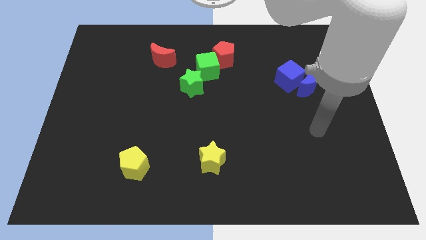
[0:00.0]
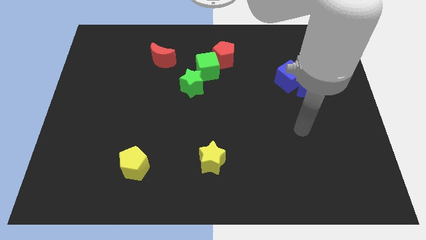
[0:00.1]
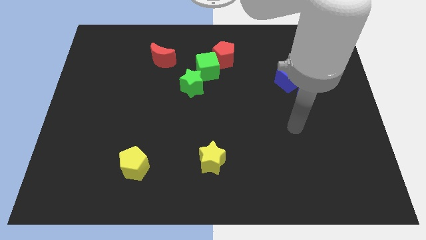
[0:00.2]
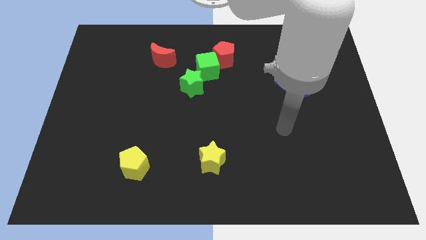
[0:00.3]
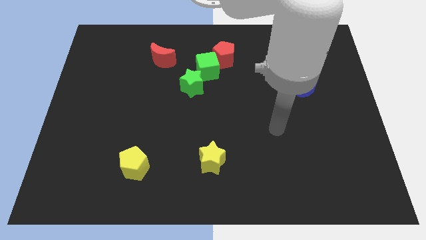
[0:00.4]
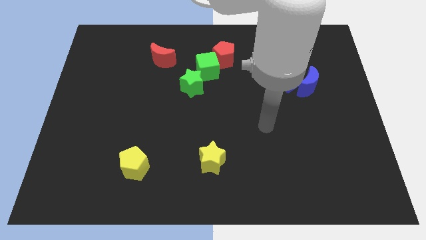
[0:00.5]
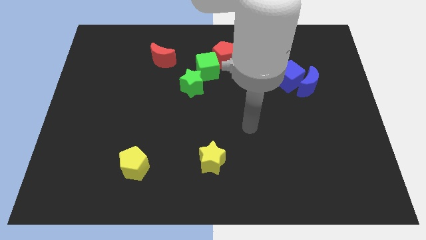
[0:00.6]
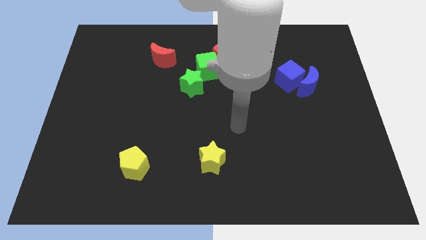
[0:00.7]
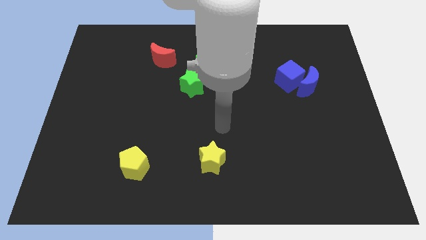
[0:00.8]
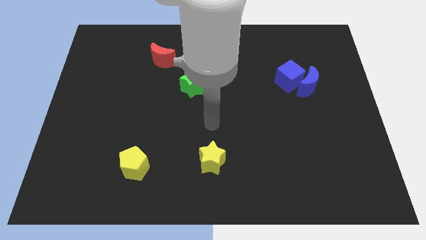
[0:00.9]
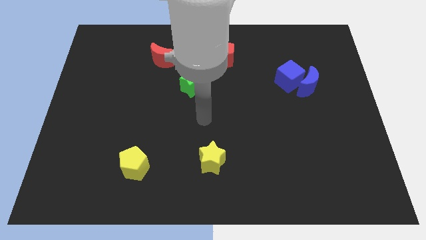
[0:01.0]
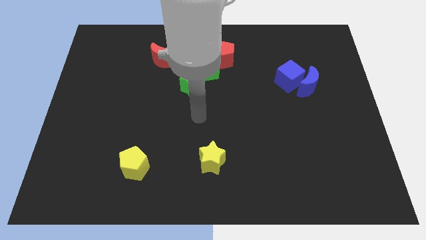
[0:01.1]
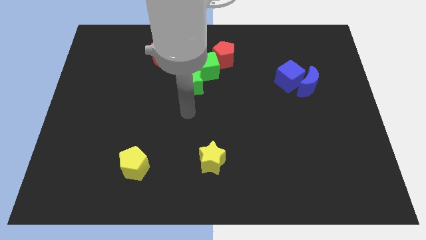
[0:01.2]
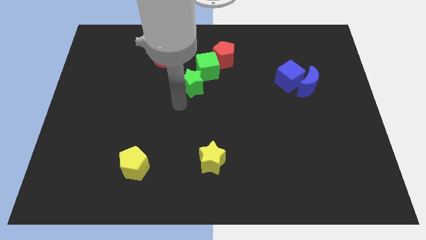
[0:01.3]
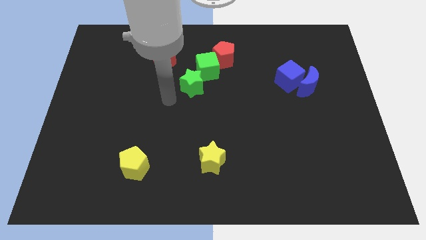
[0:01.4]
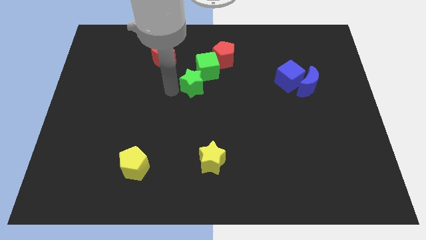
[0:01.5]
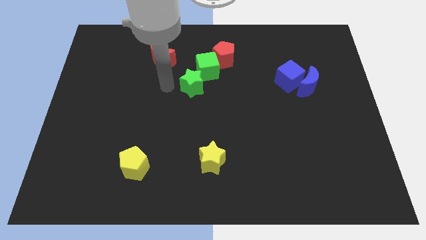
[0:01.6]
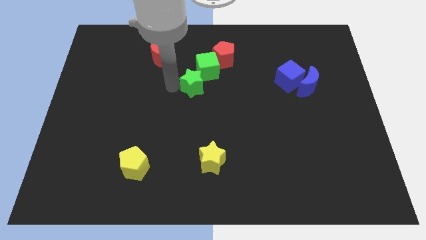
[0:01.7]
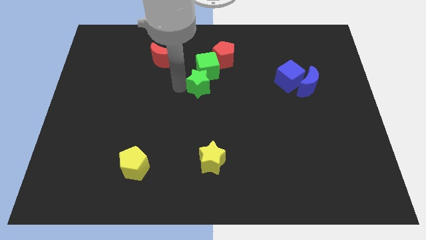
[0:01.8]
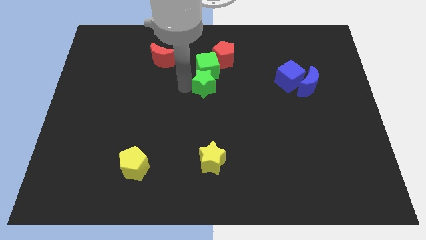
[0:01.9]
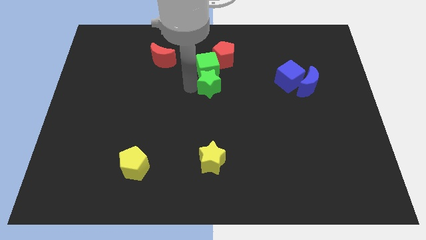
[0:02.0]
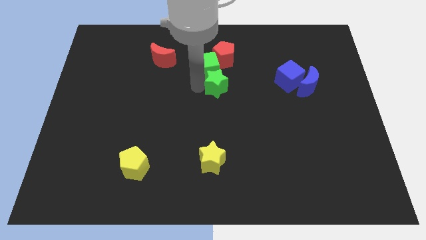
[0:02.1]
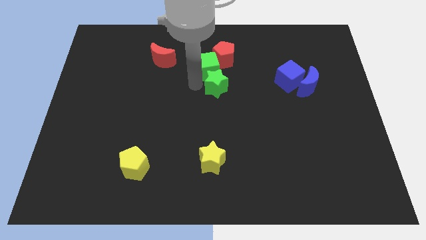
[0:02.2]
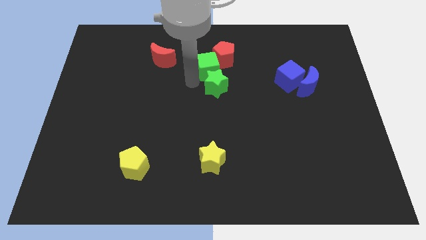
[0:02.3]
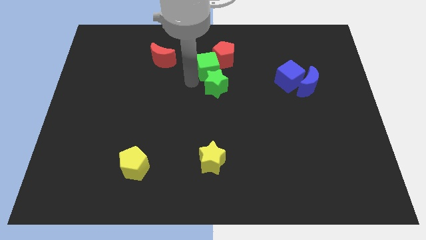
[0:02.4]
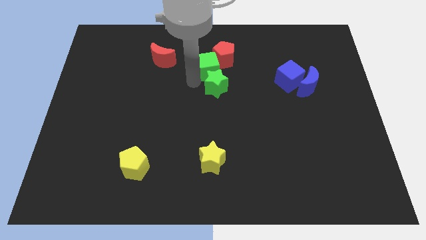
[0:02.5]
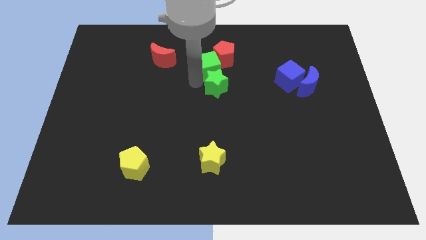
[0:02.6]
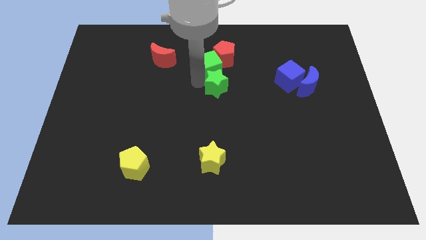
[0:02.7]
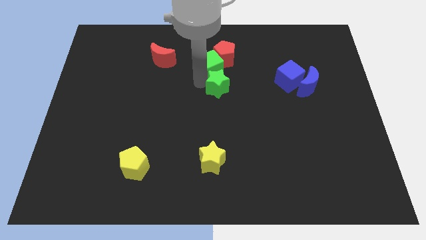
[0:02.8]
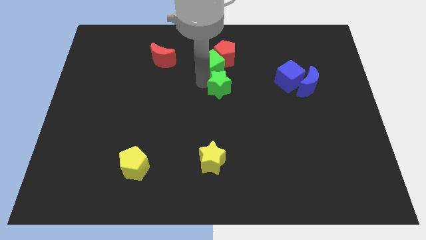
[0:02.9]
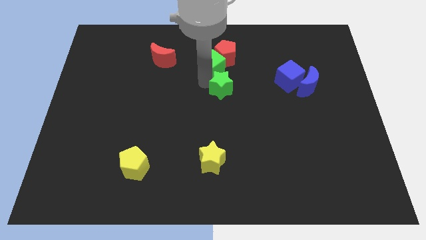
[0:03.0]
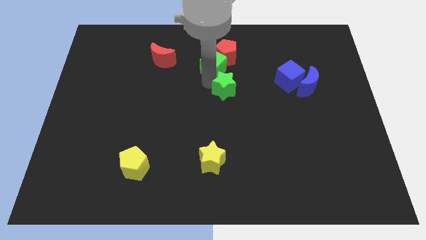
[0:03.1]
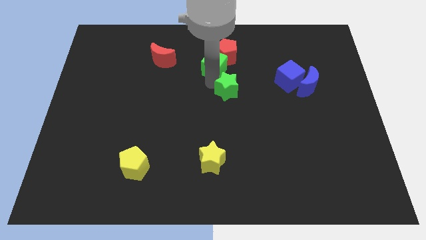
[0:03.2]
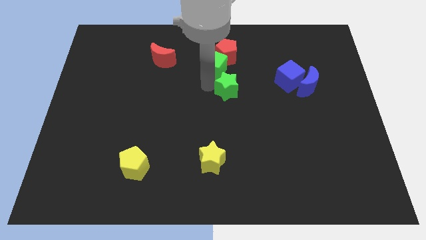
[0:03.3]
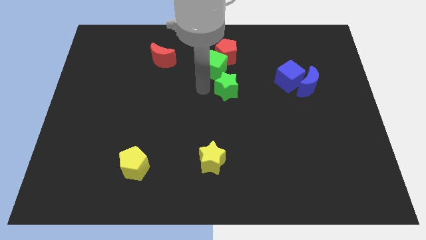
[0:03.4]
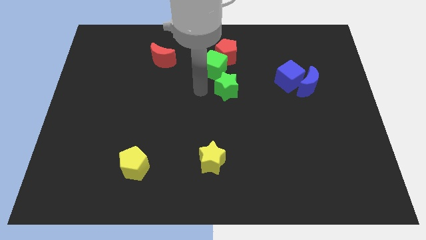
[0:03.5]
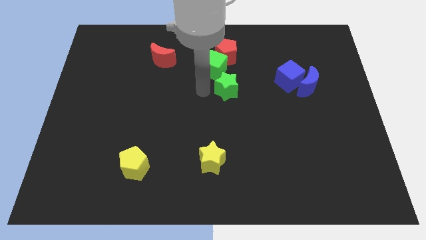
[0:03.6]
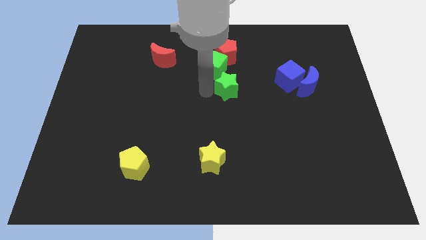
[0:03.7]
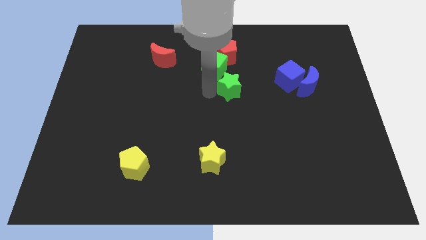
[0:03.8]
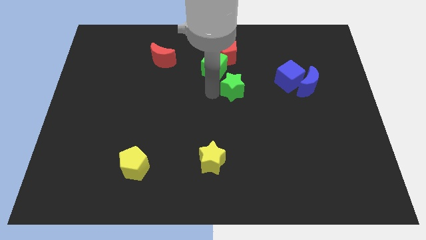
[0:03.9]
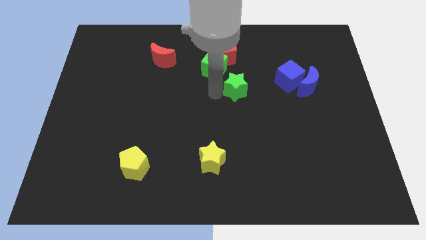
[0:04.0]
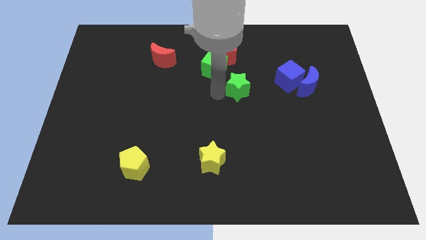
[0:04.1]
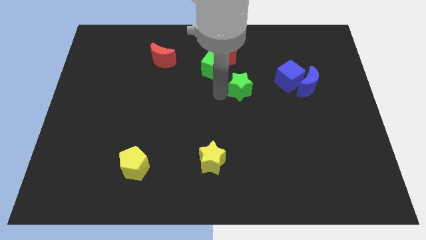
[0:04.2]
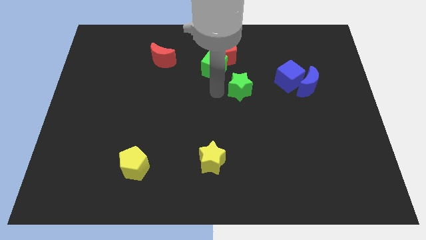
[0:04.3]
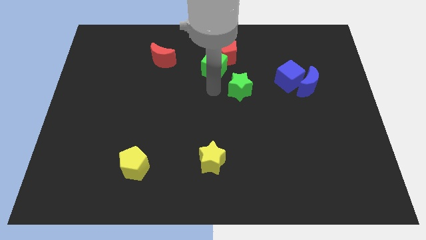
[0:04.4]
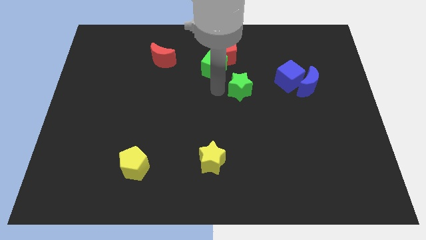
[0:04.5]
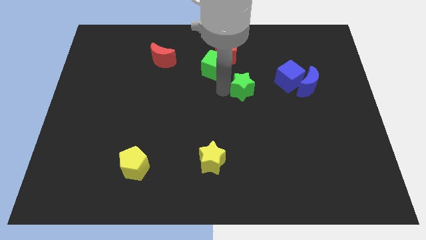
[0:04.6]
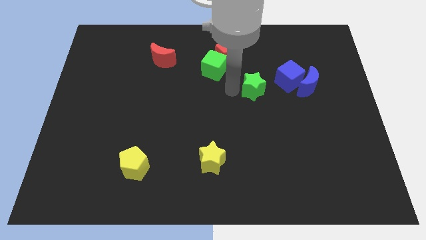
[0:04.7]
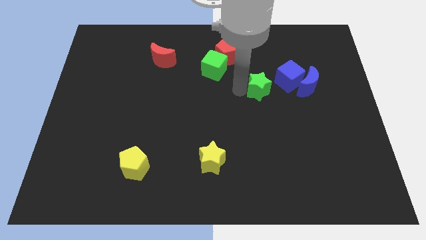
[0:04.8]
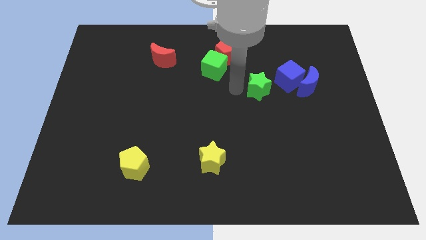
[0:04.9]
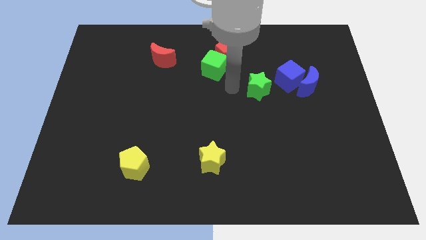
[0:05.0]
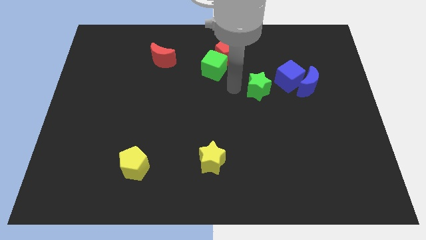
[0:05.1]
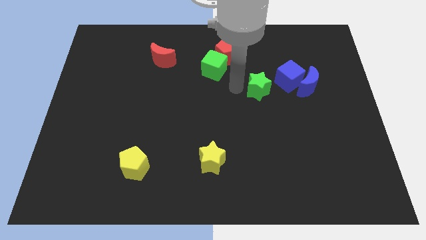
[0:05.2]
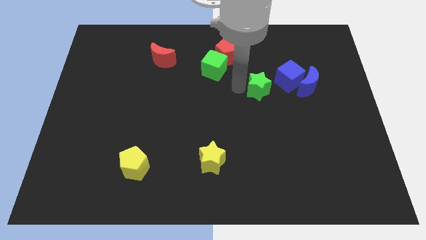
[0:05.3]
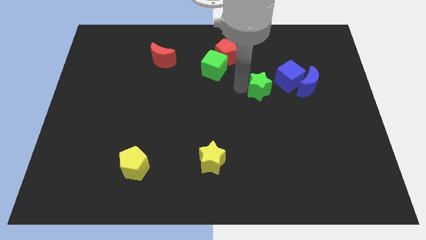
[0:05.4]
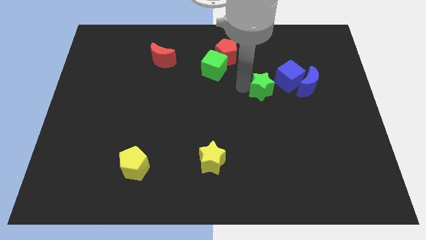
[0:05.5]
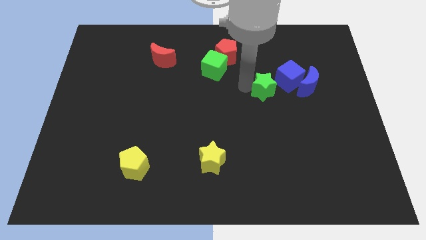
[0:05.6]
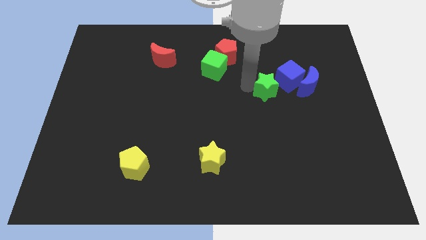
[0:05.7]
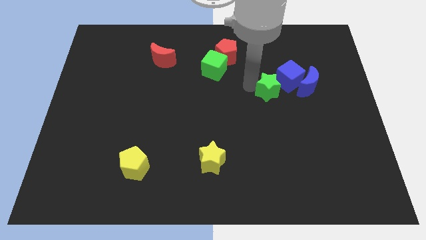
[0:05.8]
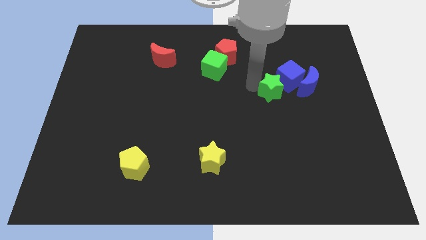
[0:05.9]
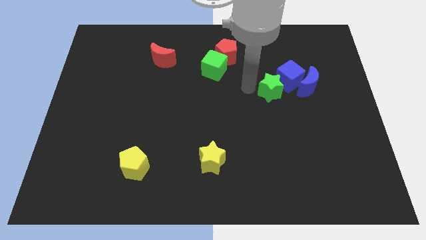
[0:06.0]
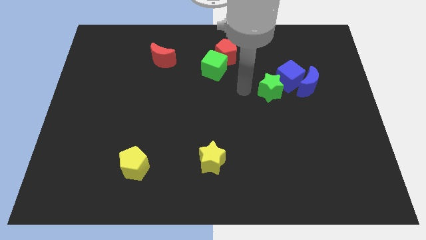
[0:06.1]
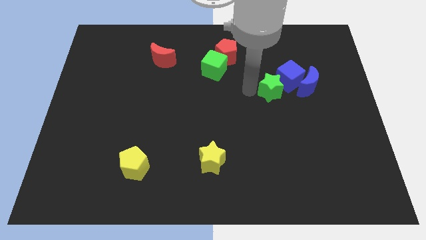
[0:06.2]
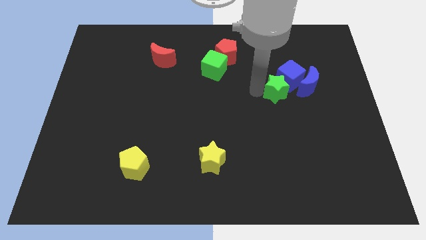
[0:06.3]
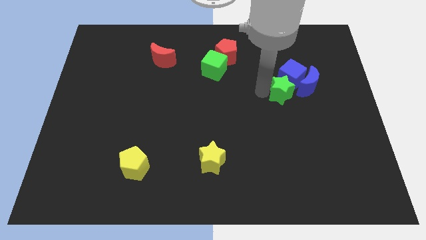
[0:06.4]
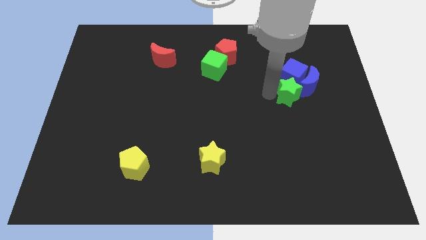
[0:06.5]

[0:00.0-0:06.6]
slide the green star next to the blue moon

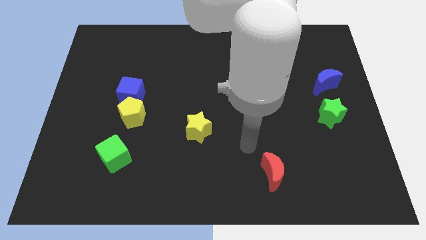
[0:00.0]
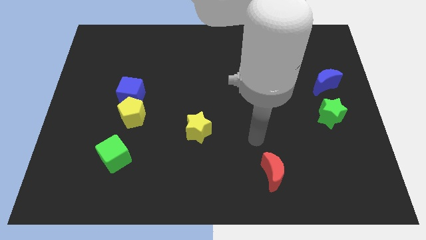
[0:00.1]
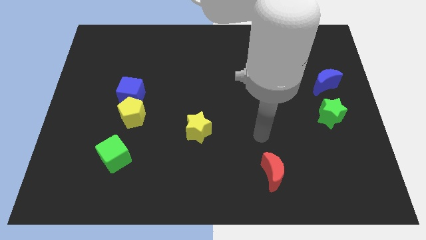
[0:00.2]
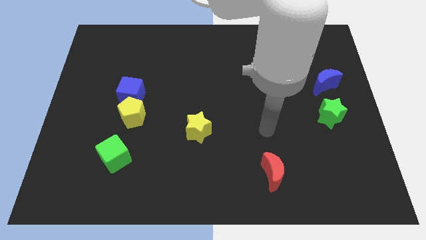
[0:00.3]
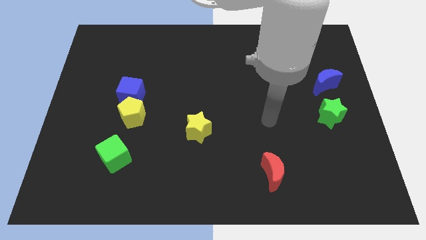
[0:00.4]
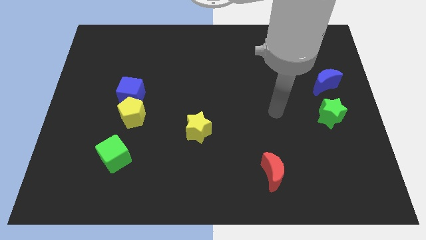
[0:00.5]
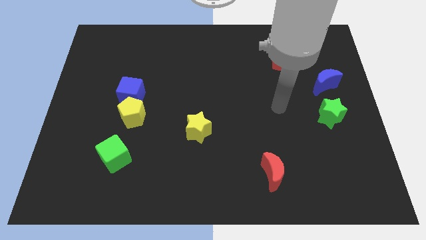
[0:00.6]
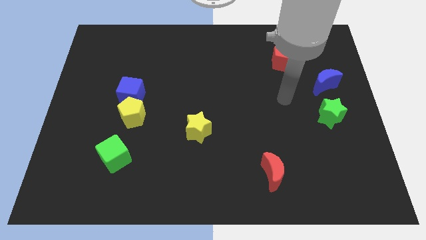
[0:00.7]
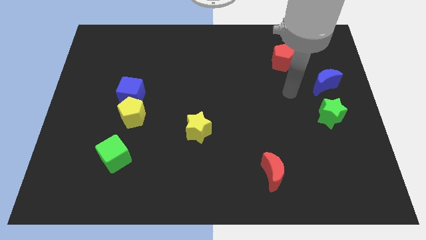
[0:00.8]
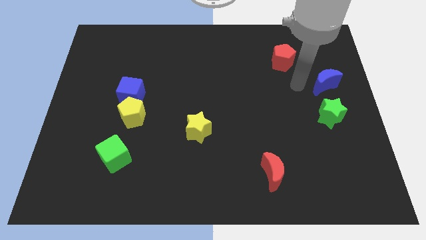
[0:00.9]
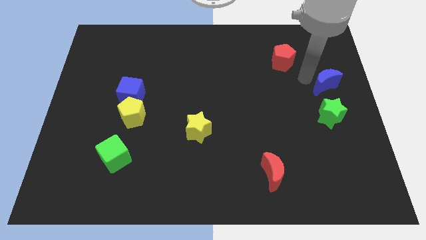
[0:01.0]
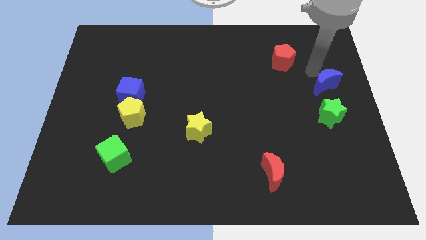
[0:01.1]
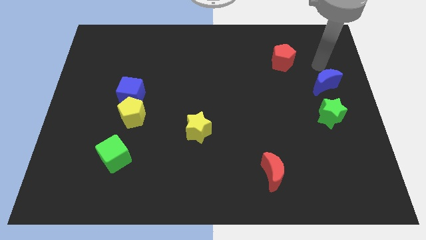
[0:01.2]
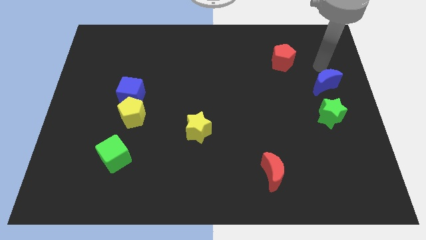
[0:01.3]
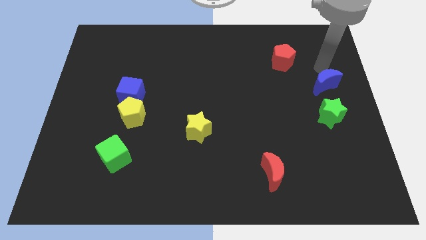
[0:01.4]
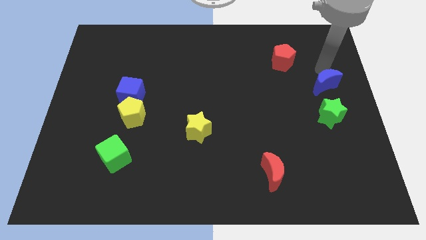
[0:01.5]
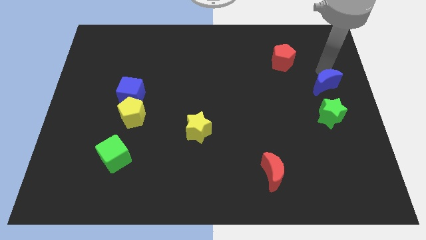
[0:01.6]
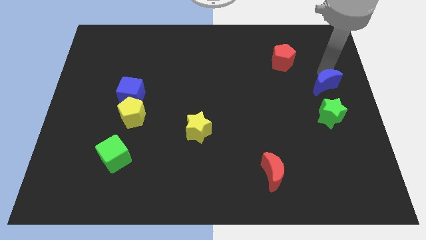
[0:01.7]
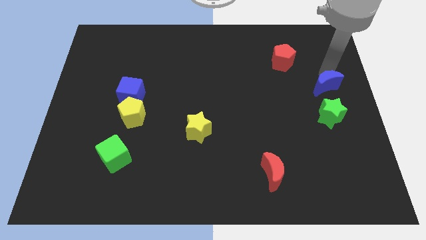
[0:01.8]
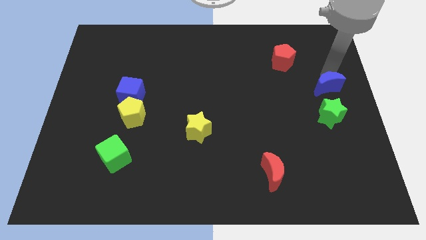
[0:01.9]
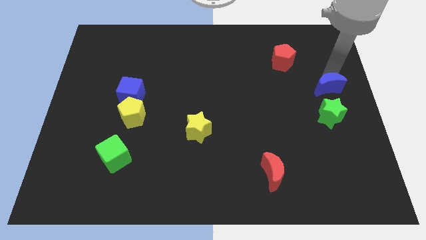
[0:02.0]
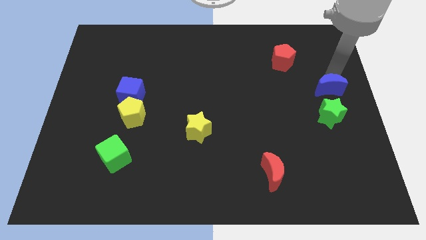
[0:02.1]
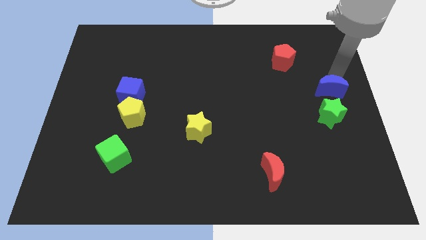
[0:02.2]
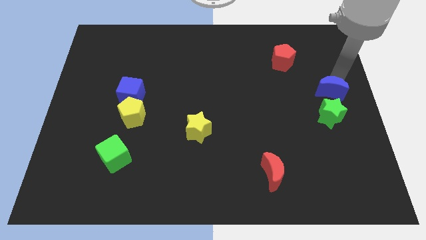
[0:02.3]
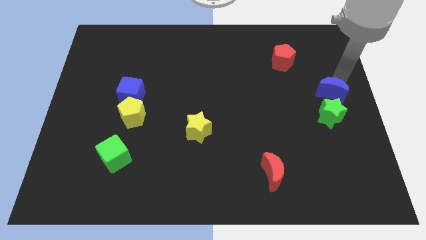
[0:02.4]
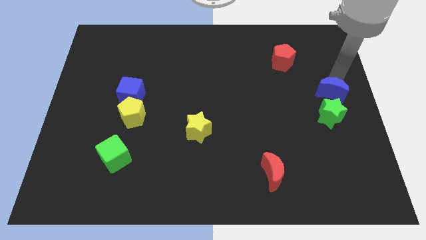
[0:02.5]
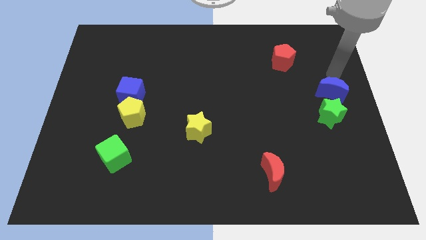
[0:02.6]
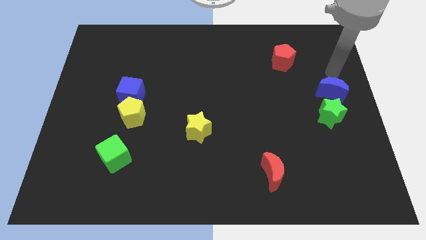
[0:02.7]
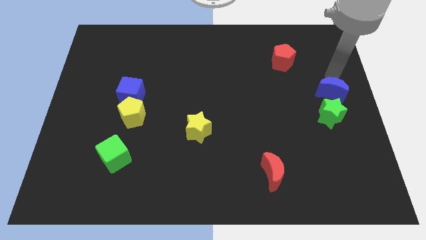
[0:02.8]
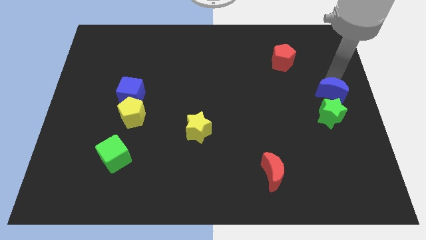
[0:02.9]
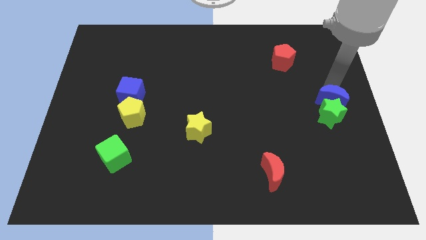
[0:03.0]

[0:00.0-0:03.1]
move the blue moon towards the green star
